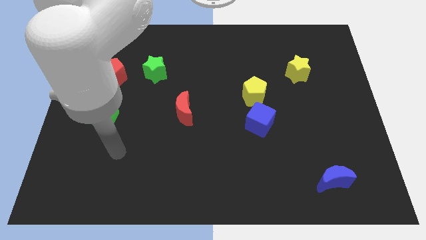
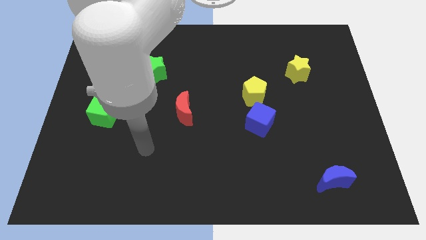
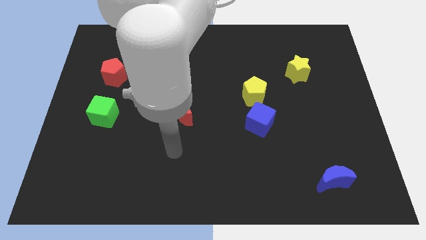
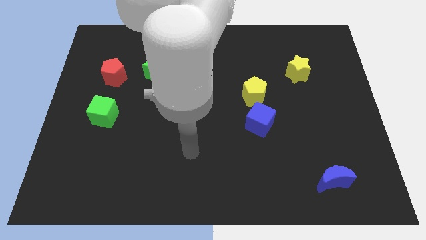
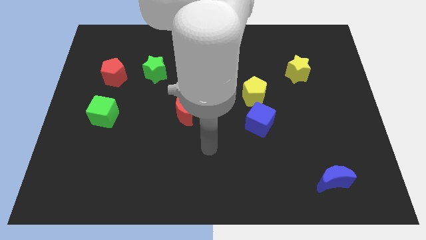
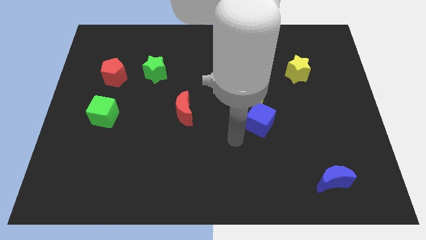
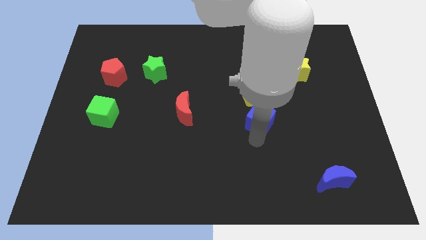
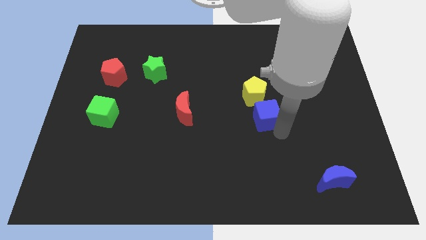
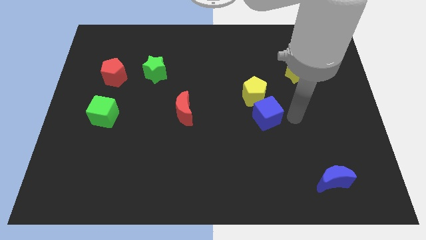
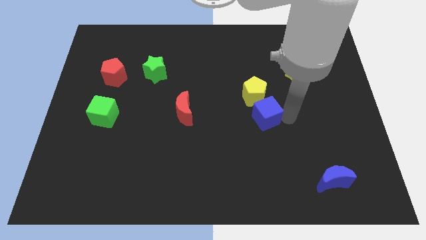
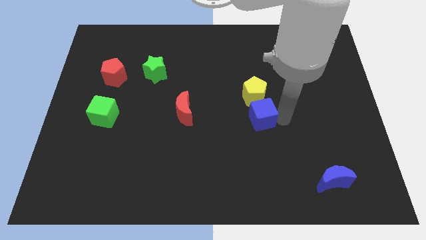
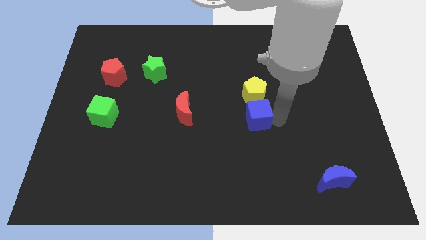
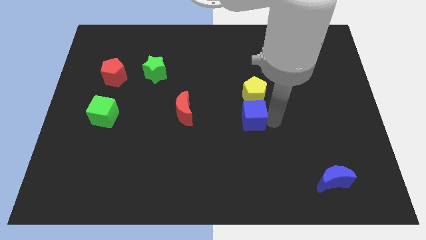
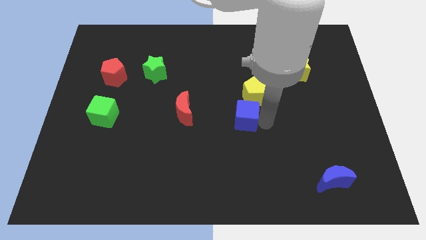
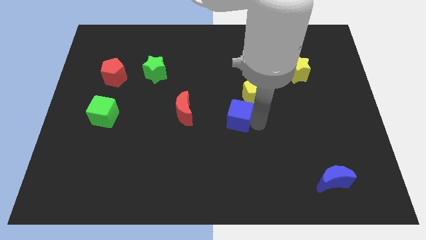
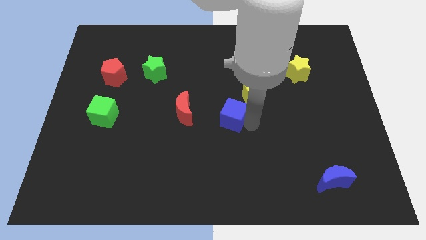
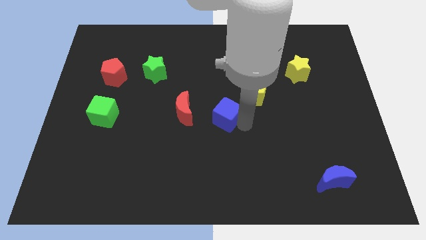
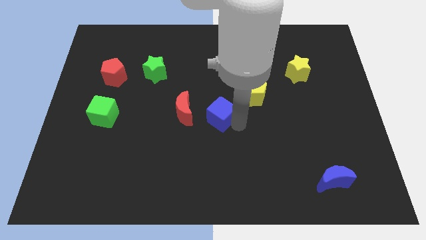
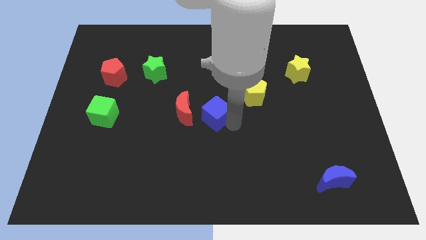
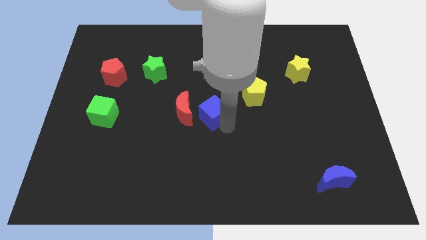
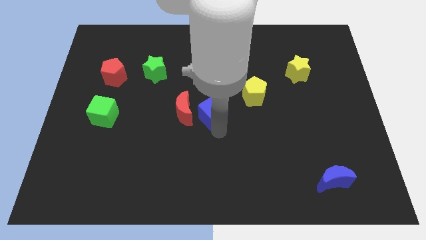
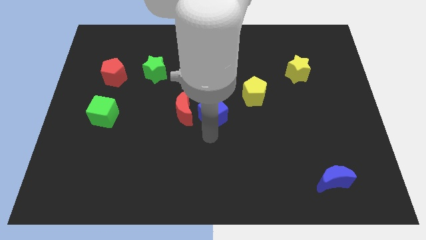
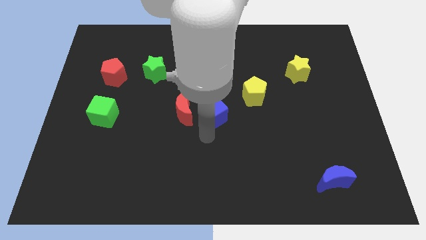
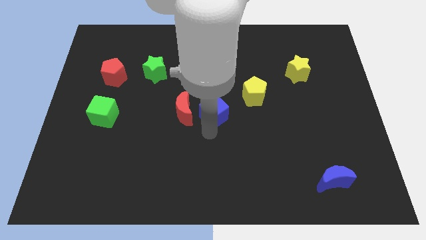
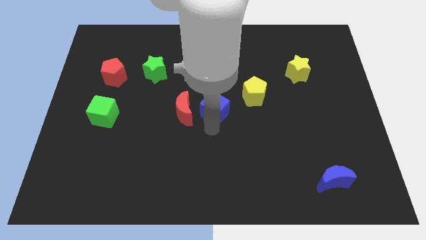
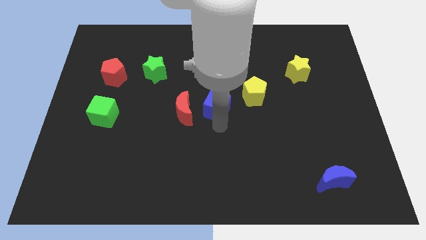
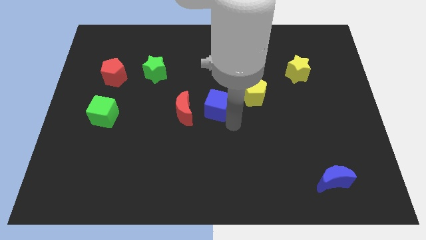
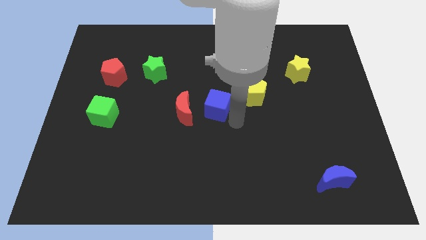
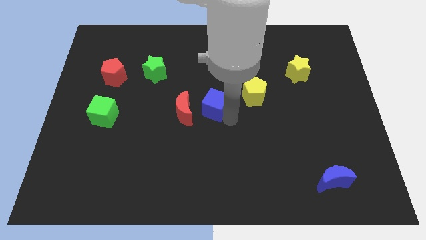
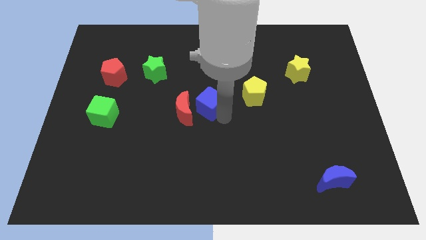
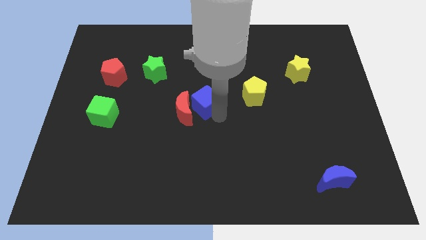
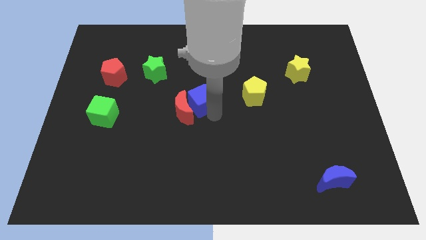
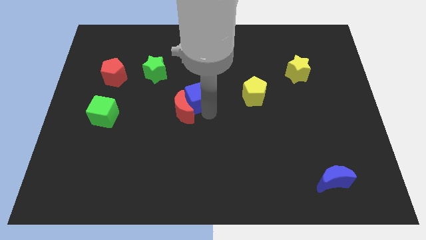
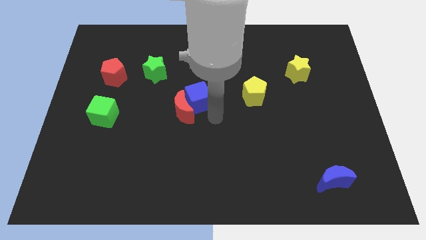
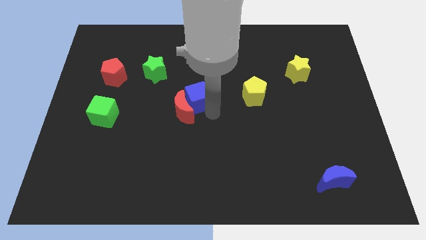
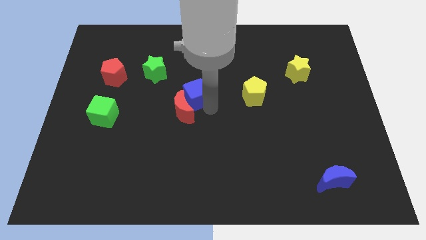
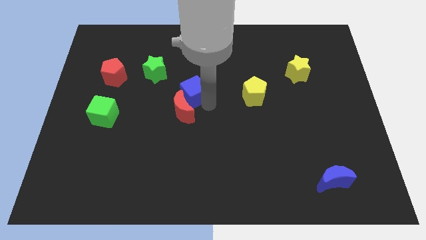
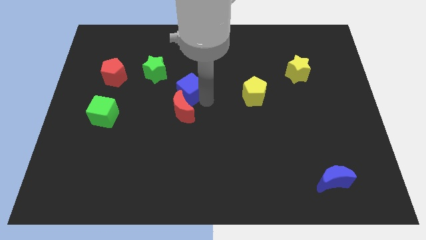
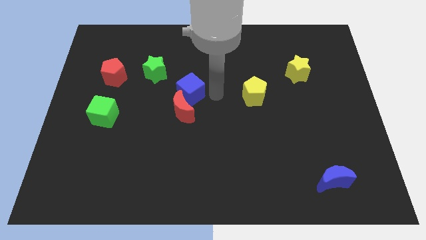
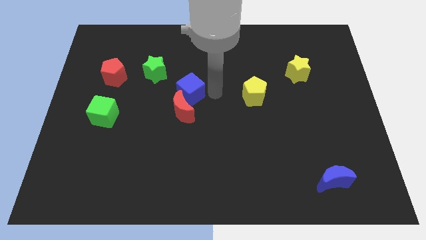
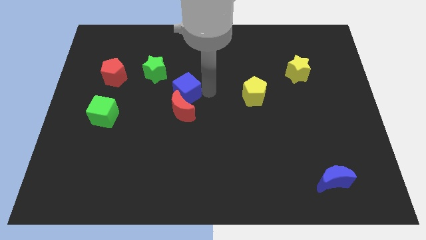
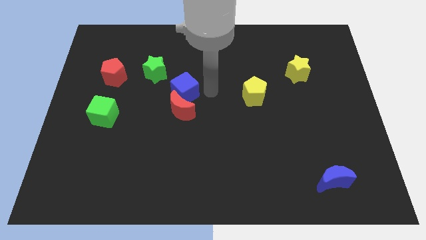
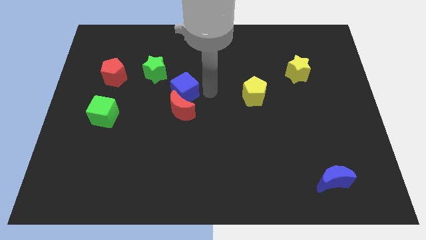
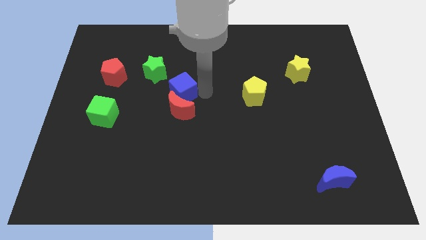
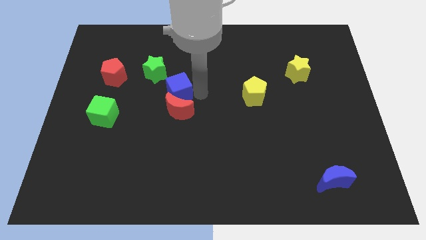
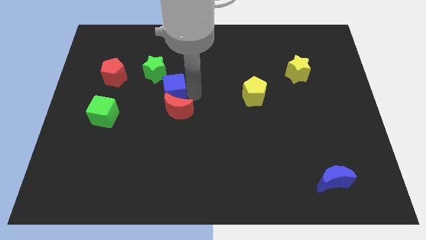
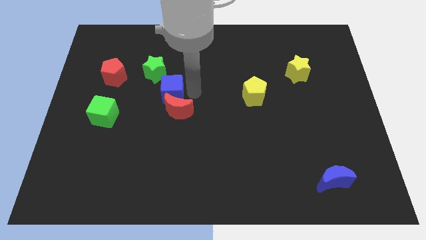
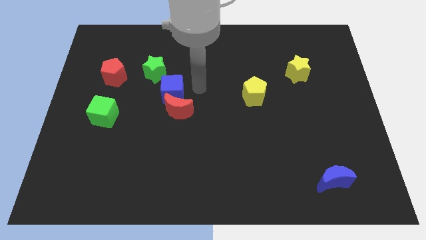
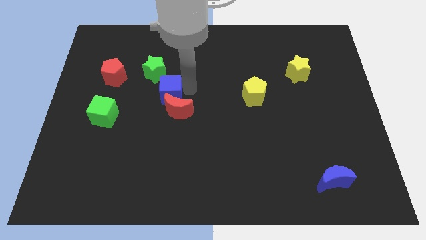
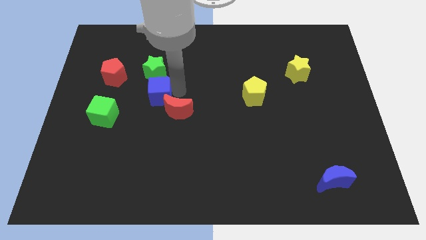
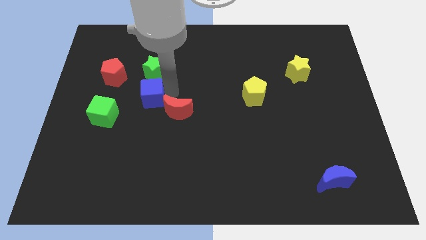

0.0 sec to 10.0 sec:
move the blue cube to the top right side of the green cube

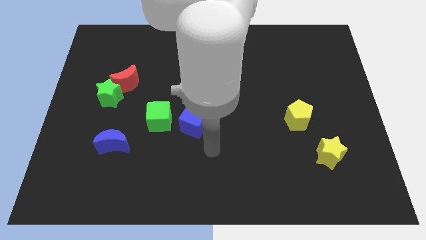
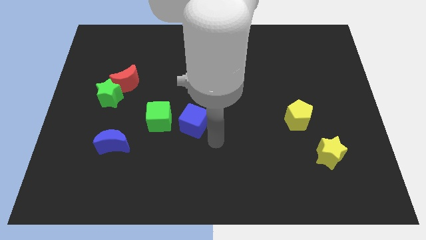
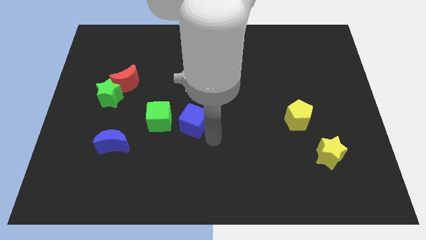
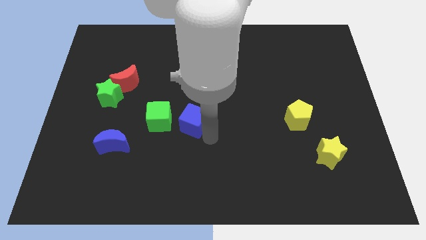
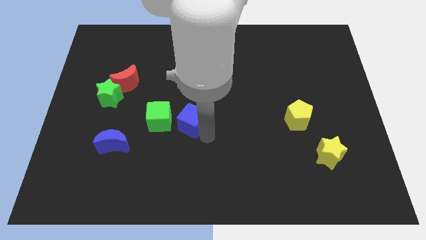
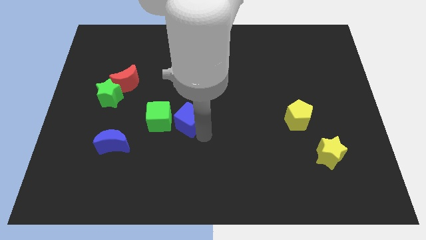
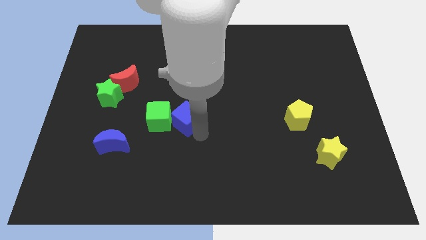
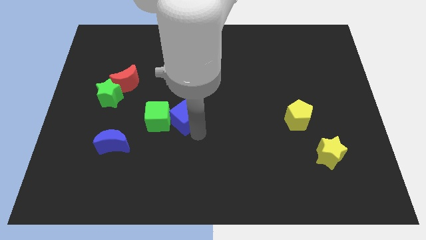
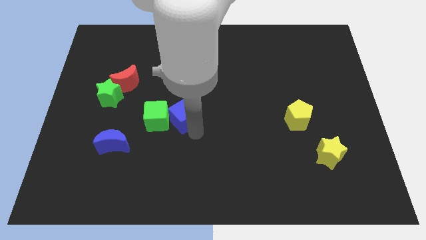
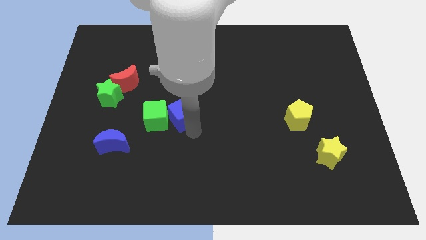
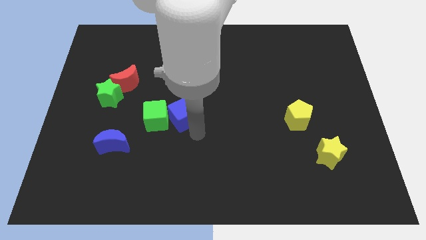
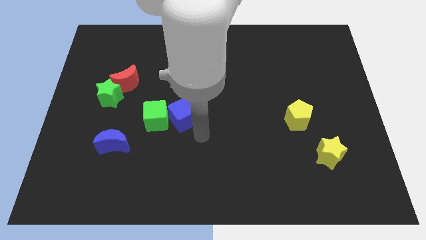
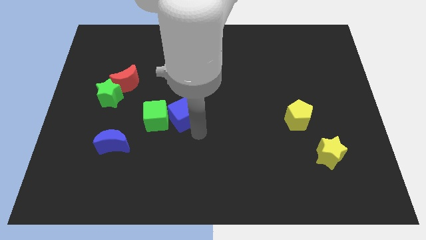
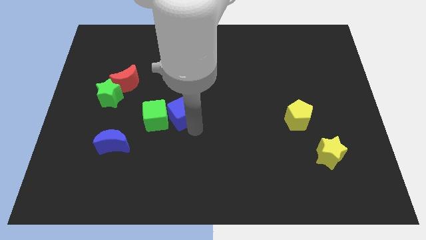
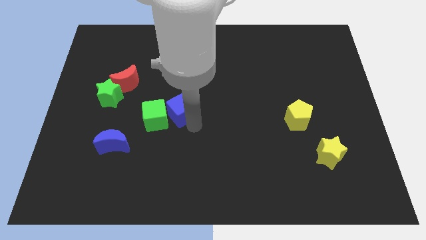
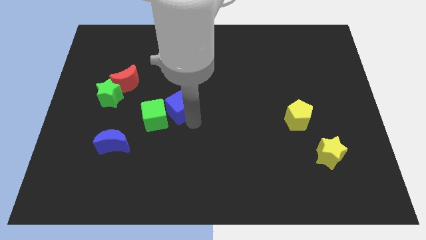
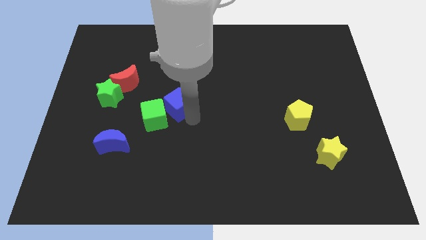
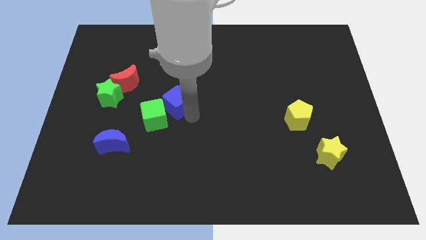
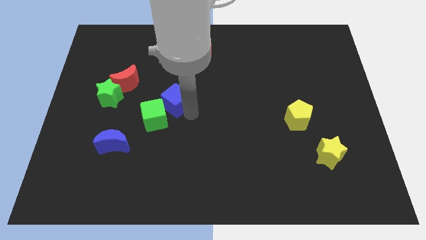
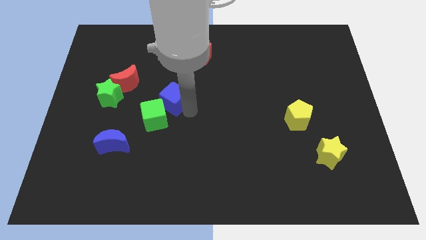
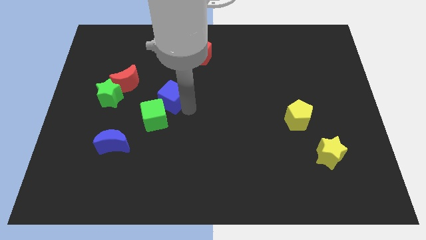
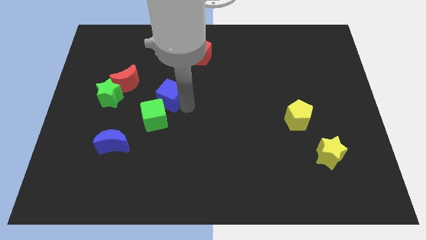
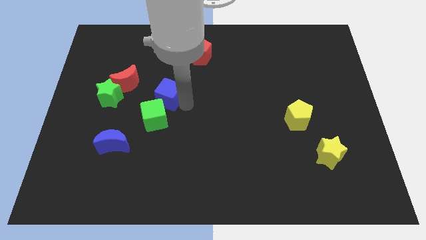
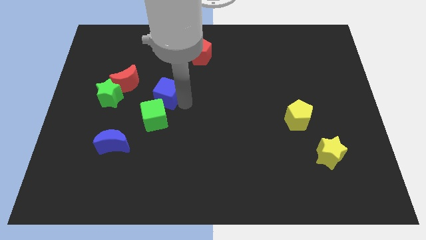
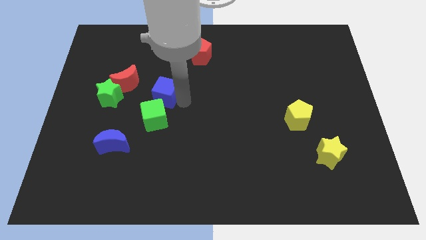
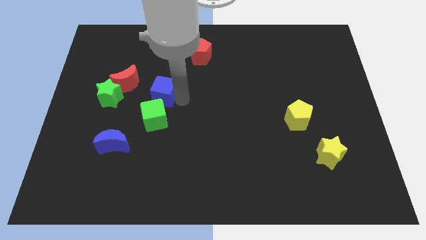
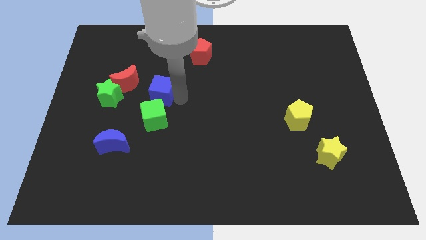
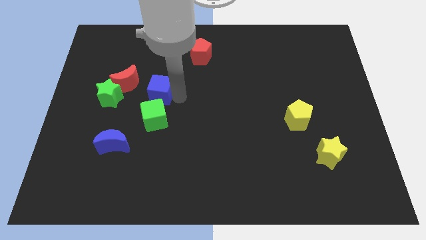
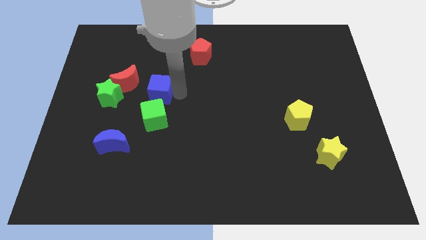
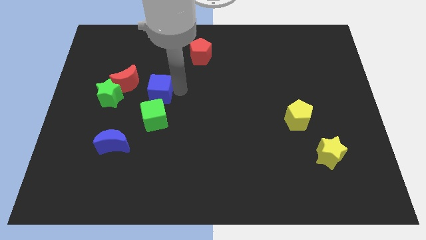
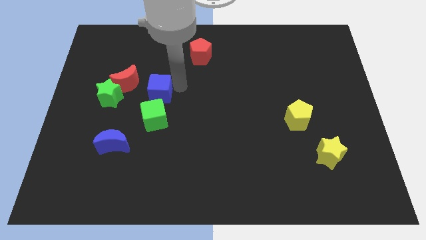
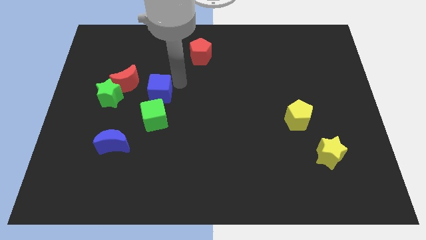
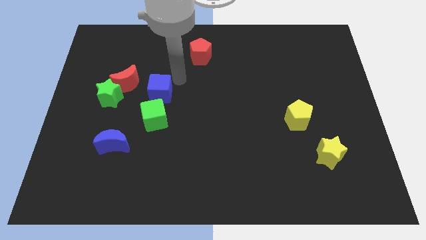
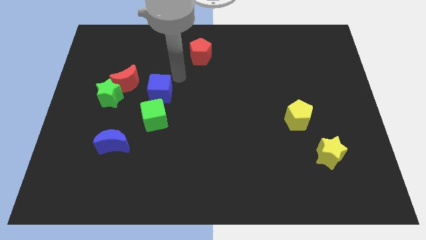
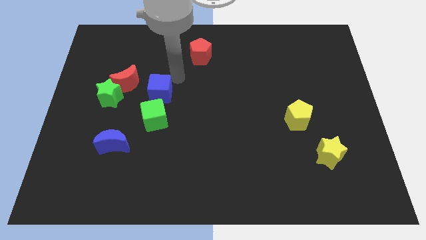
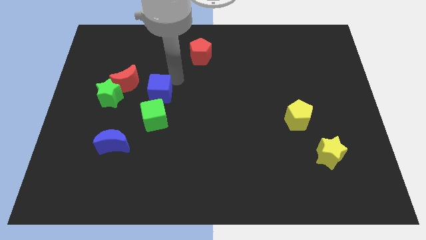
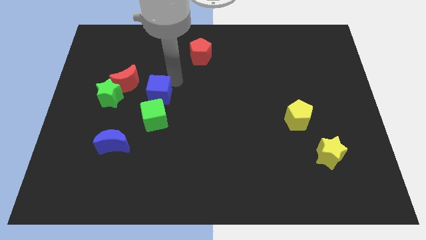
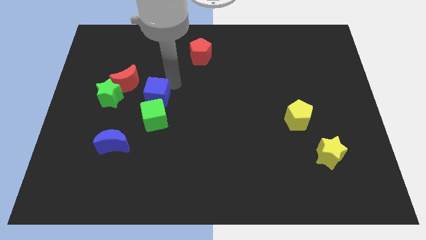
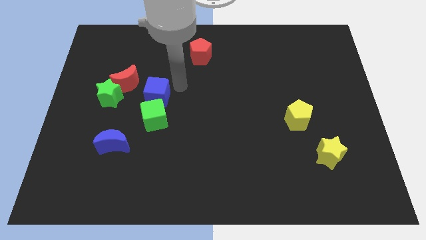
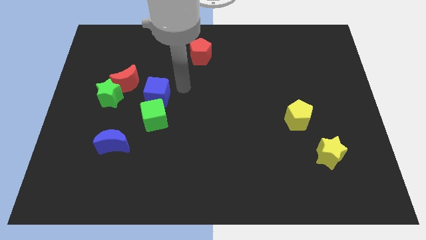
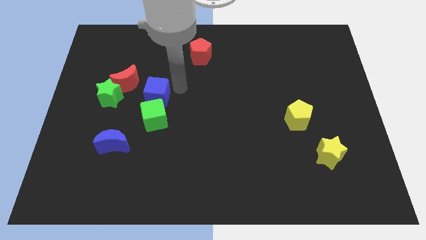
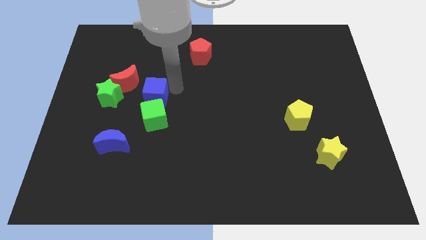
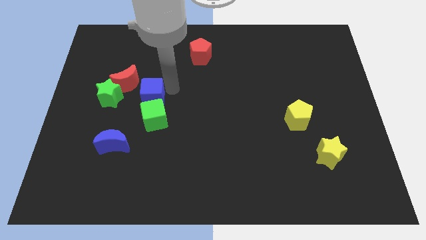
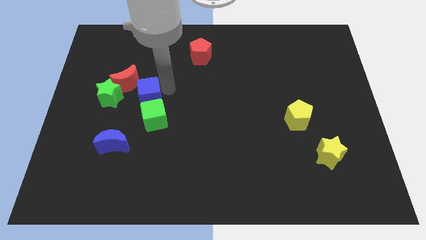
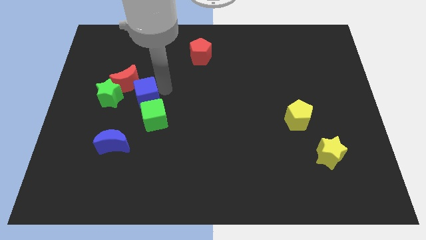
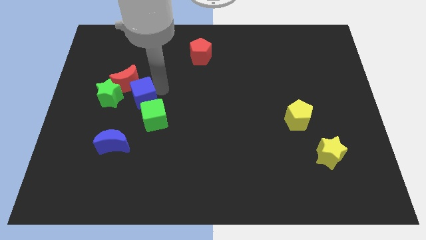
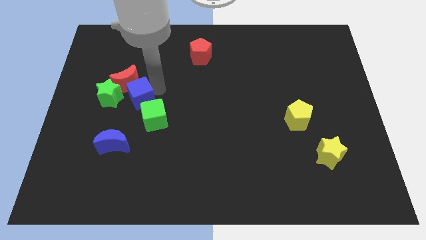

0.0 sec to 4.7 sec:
move the blue cube to the top side of the blue moon
